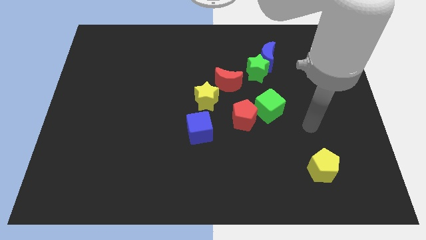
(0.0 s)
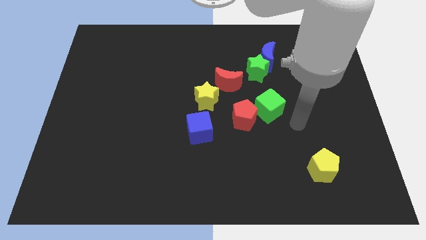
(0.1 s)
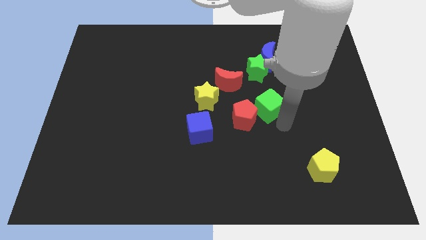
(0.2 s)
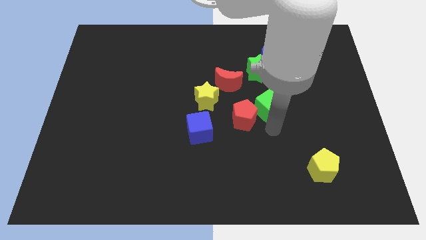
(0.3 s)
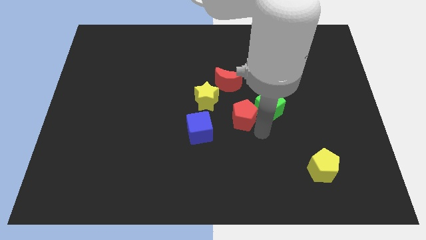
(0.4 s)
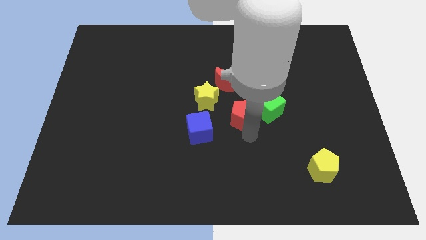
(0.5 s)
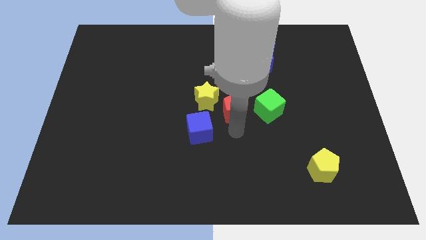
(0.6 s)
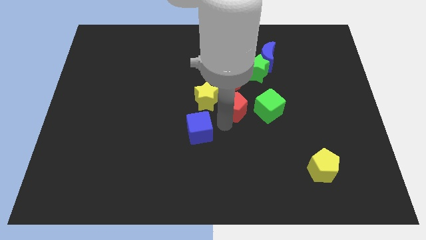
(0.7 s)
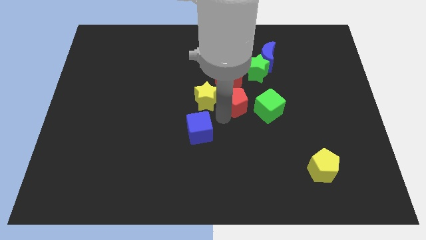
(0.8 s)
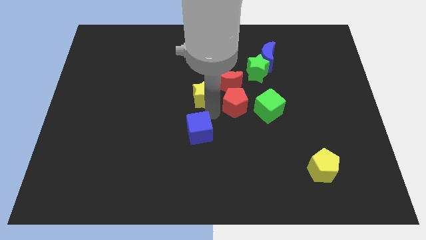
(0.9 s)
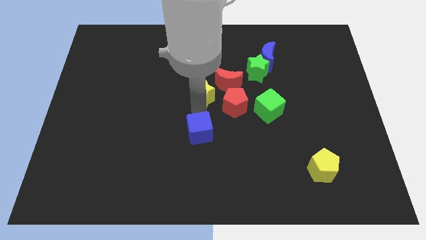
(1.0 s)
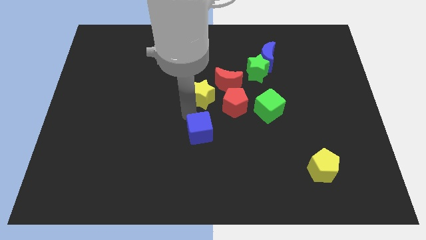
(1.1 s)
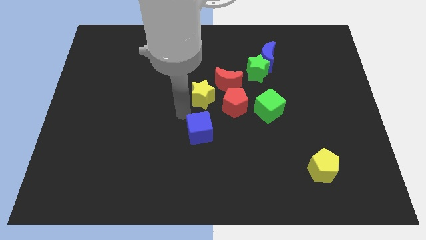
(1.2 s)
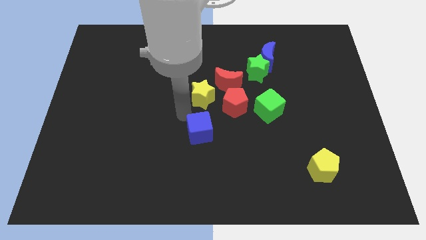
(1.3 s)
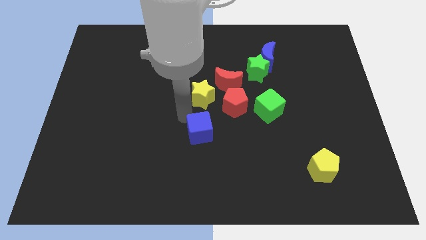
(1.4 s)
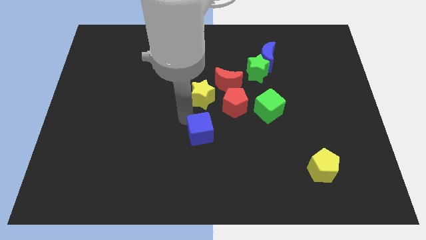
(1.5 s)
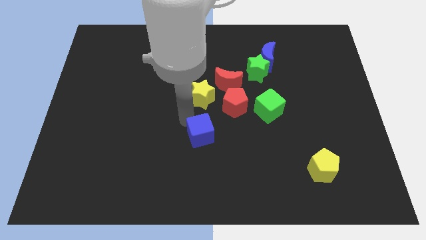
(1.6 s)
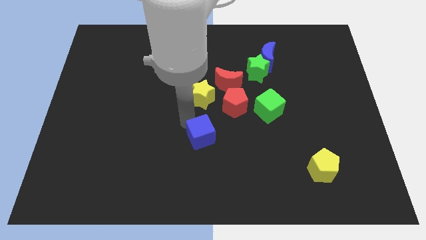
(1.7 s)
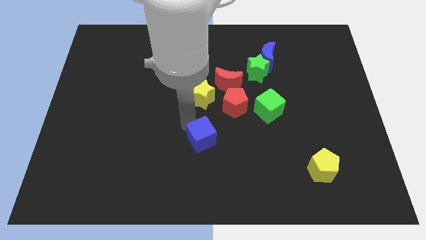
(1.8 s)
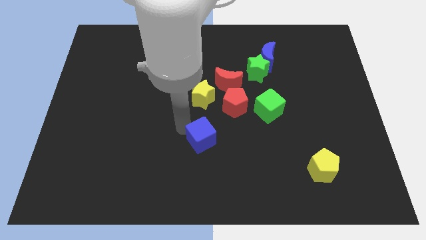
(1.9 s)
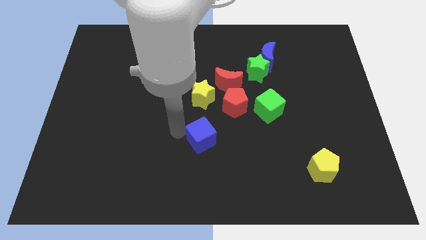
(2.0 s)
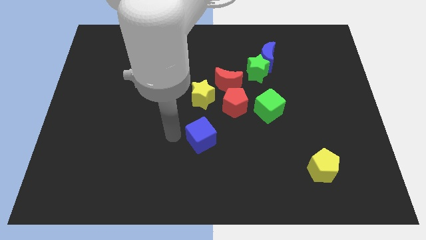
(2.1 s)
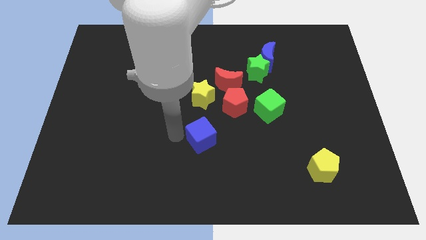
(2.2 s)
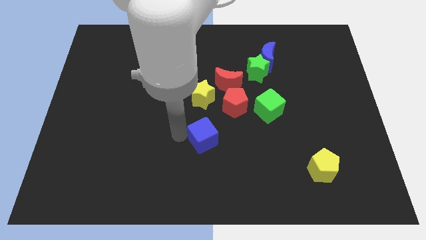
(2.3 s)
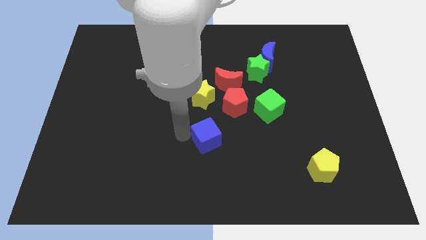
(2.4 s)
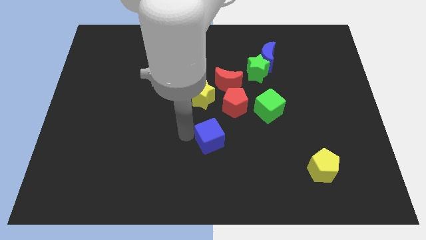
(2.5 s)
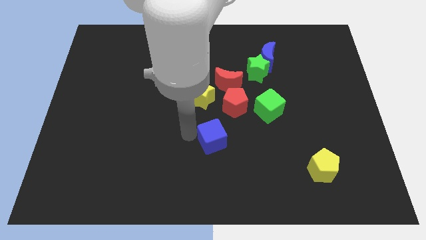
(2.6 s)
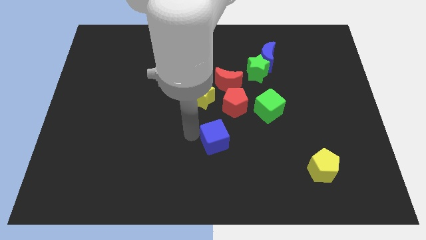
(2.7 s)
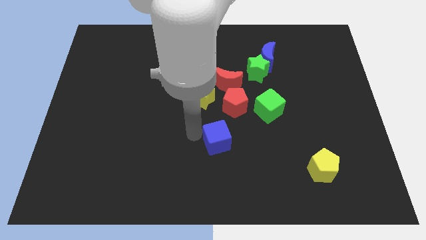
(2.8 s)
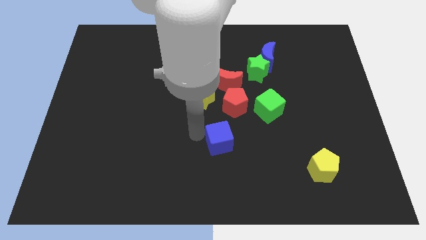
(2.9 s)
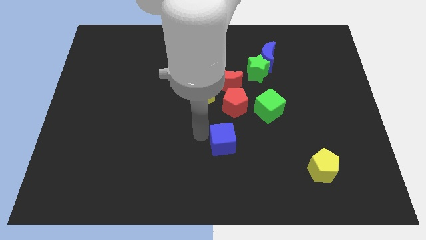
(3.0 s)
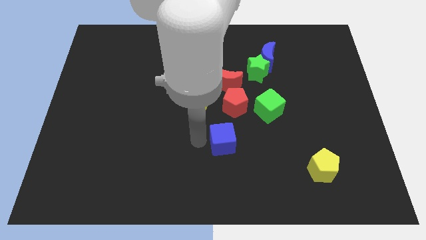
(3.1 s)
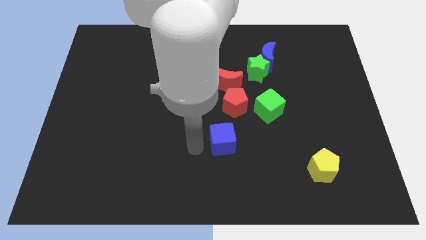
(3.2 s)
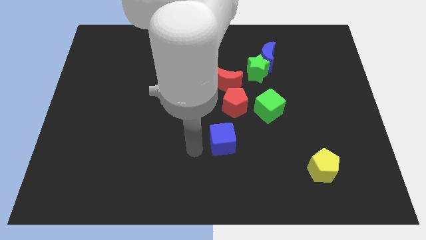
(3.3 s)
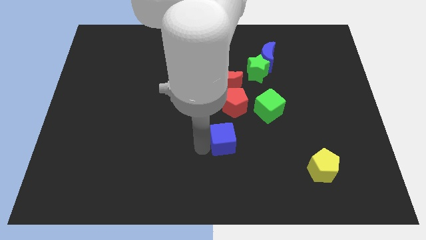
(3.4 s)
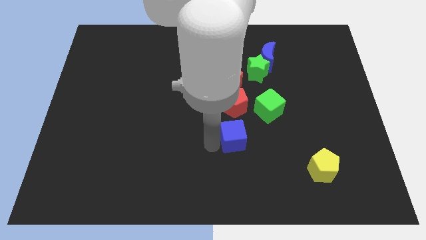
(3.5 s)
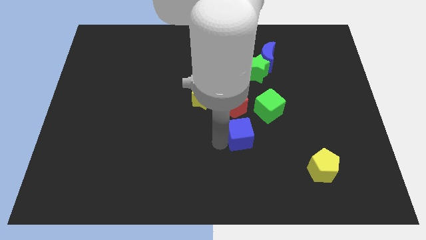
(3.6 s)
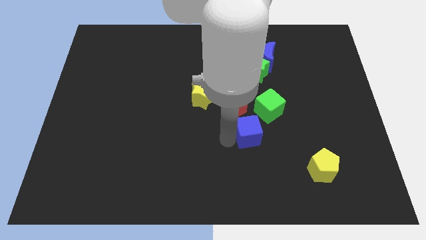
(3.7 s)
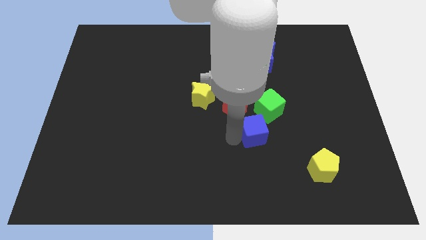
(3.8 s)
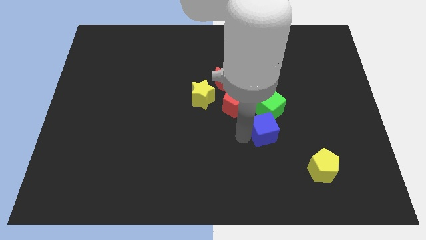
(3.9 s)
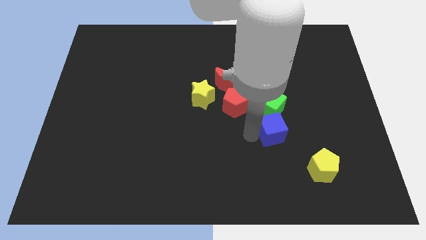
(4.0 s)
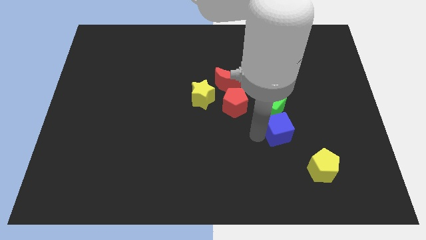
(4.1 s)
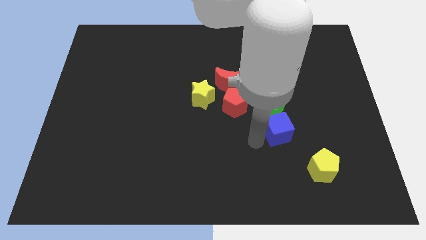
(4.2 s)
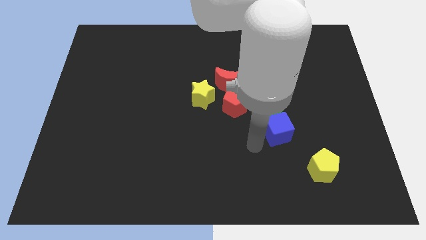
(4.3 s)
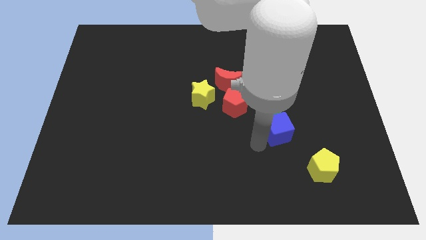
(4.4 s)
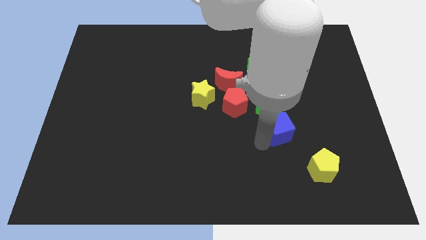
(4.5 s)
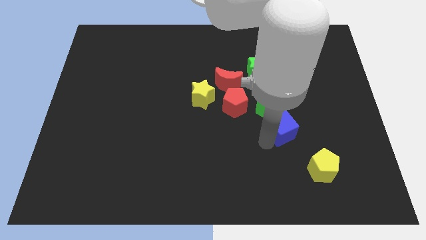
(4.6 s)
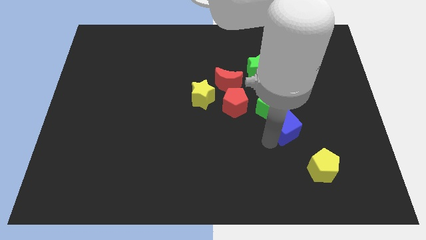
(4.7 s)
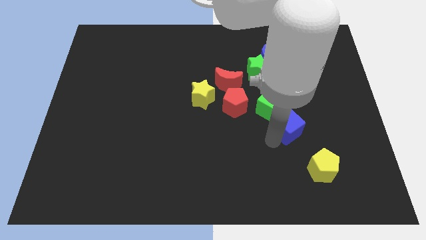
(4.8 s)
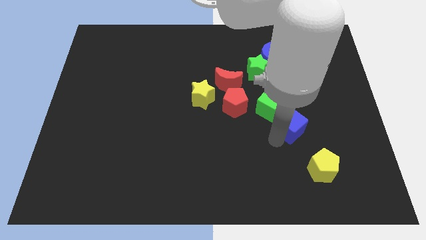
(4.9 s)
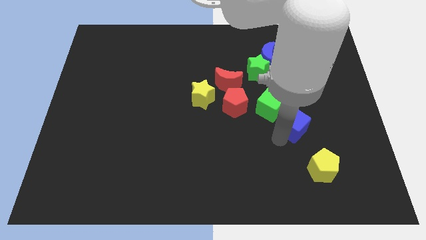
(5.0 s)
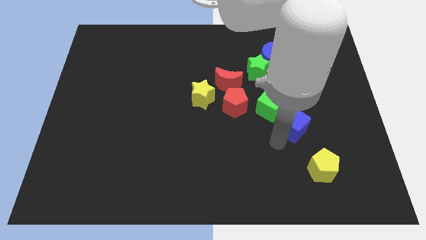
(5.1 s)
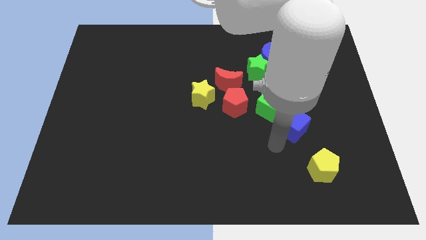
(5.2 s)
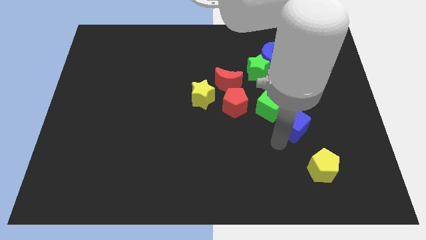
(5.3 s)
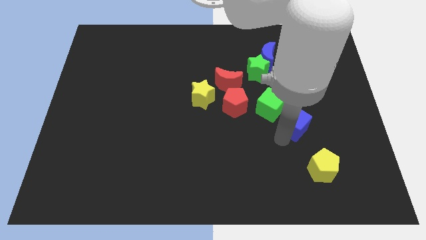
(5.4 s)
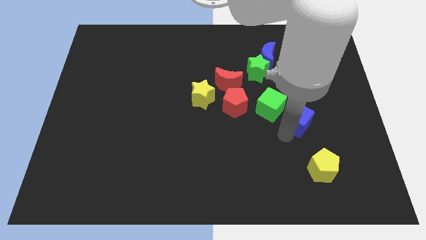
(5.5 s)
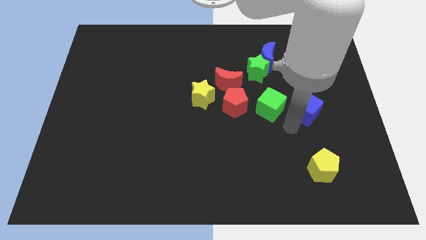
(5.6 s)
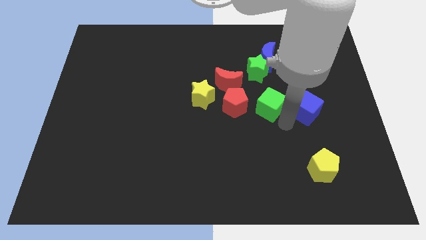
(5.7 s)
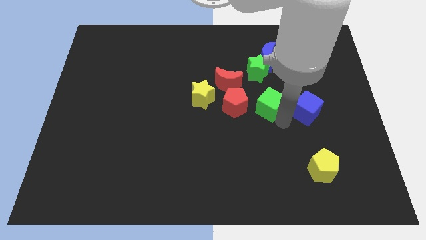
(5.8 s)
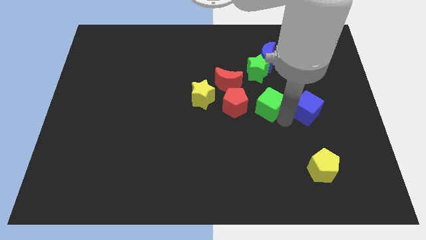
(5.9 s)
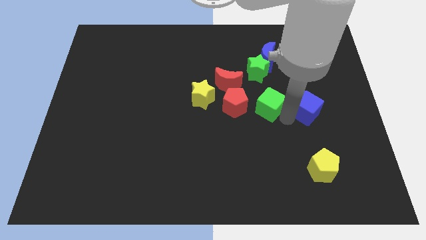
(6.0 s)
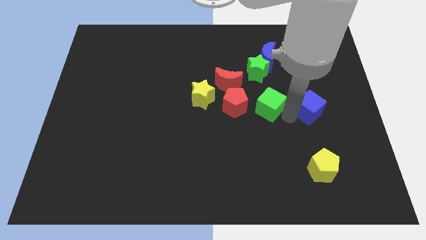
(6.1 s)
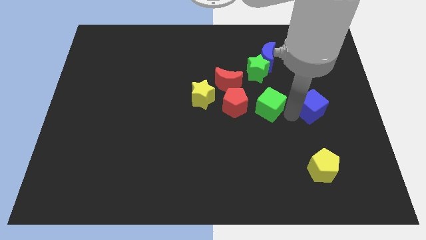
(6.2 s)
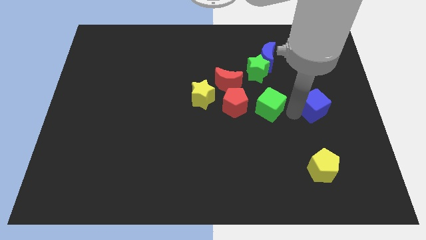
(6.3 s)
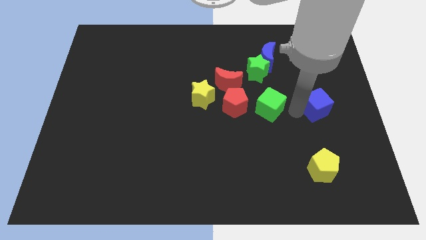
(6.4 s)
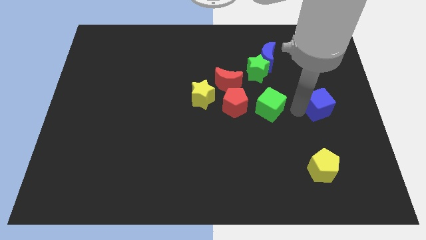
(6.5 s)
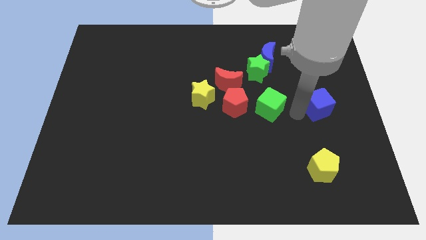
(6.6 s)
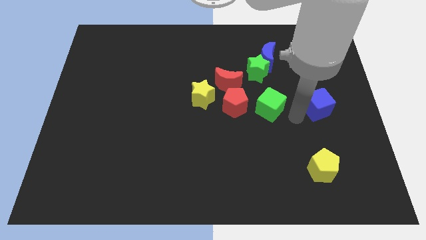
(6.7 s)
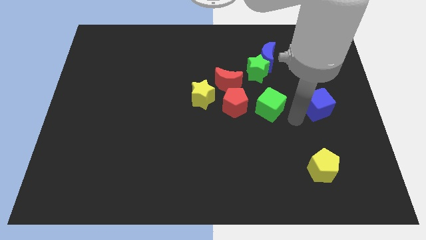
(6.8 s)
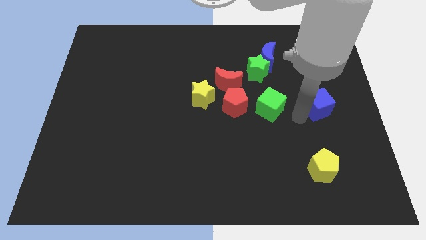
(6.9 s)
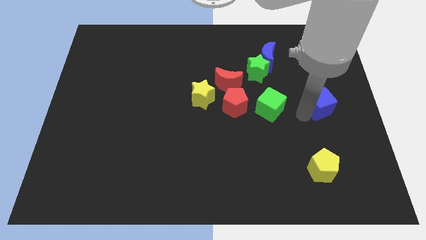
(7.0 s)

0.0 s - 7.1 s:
slide the blue cube to the right side of the board
